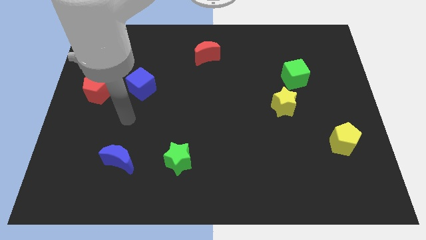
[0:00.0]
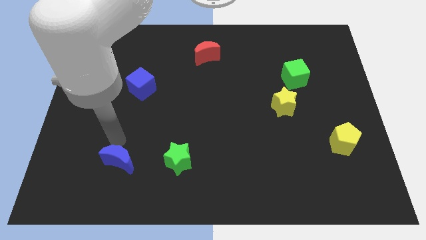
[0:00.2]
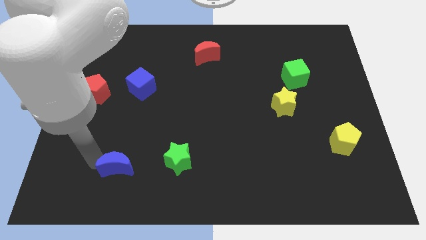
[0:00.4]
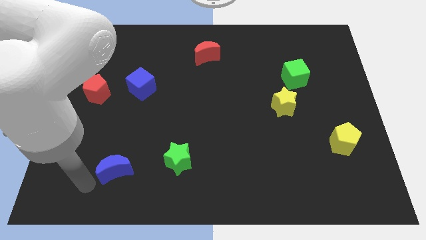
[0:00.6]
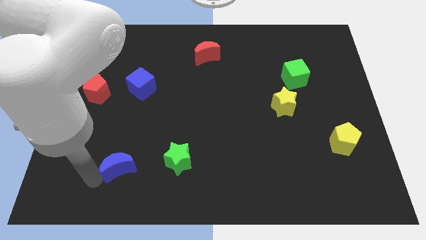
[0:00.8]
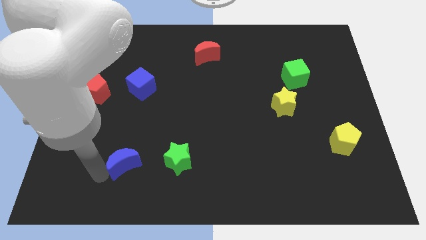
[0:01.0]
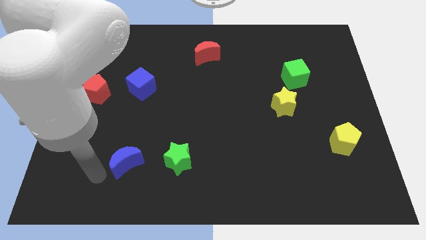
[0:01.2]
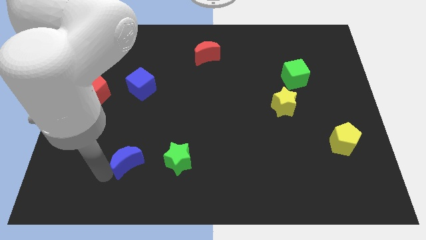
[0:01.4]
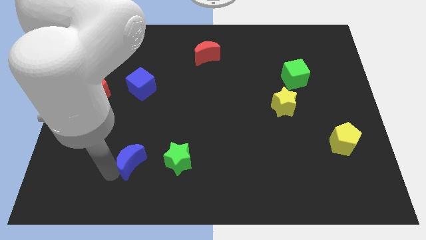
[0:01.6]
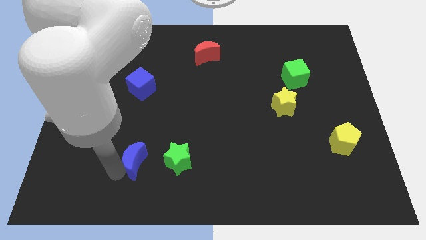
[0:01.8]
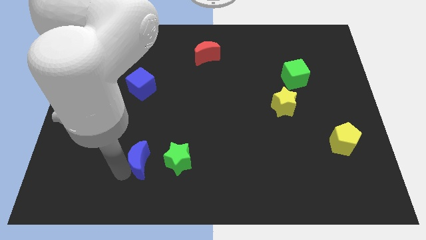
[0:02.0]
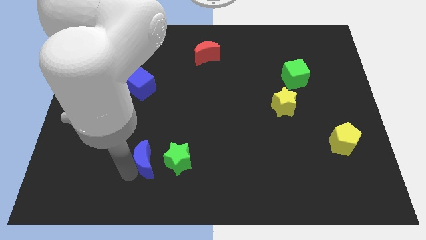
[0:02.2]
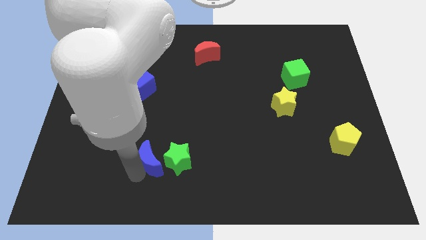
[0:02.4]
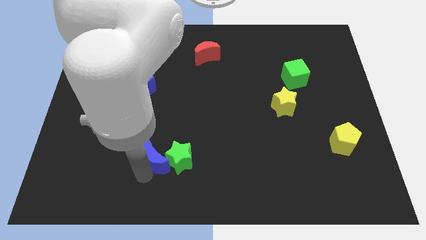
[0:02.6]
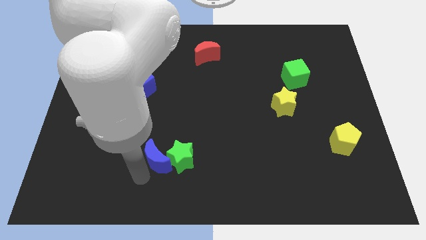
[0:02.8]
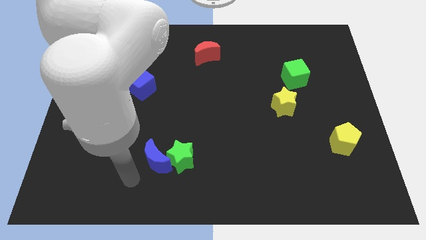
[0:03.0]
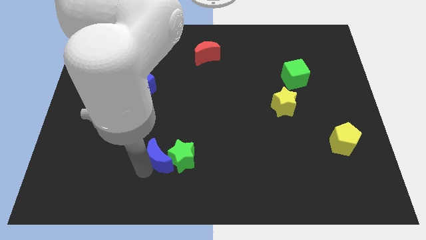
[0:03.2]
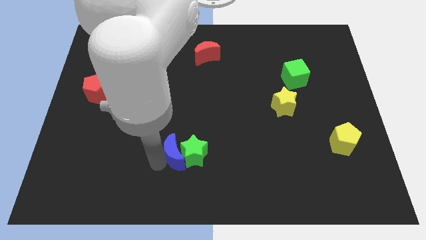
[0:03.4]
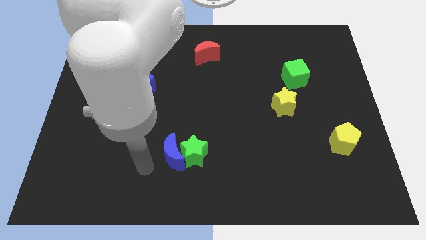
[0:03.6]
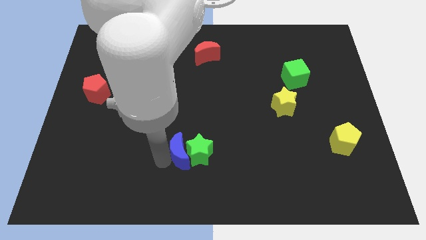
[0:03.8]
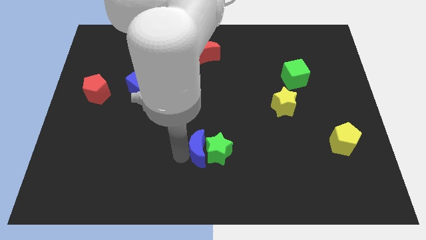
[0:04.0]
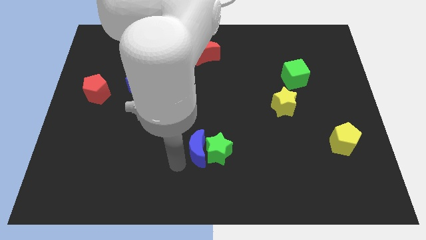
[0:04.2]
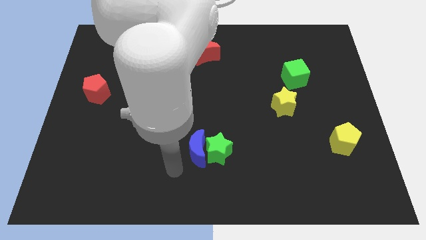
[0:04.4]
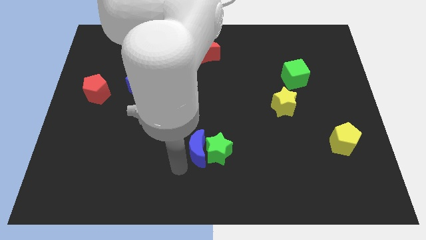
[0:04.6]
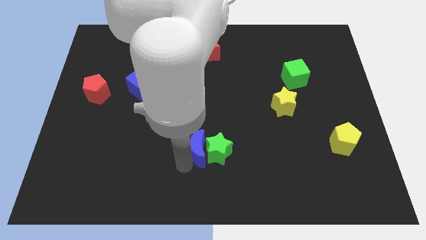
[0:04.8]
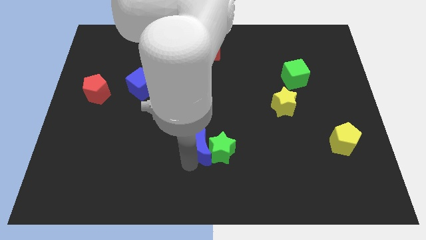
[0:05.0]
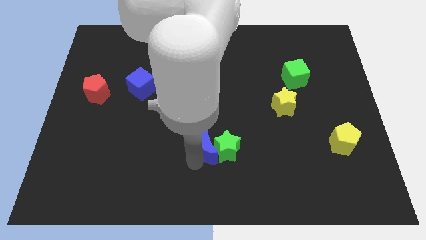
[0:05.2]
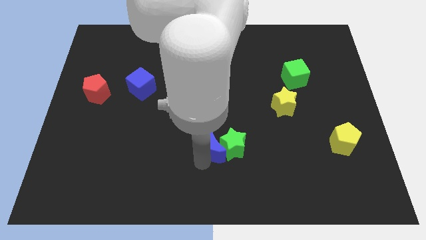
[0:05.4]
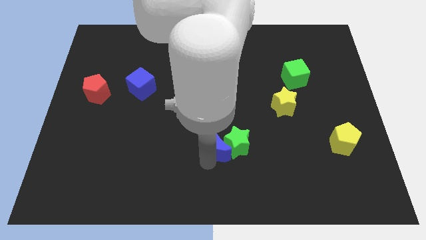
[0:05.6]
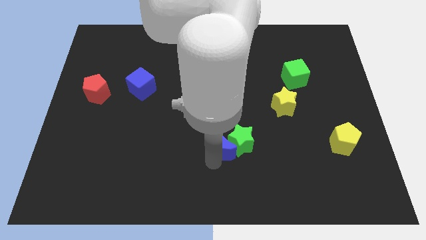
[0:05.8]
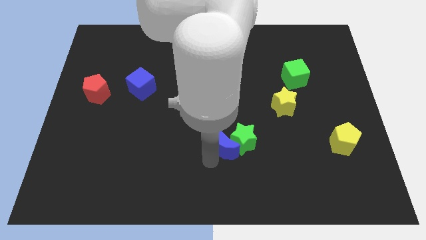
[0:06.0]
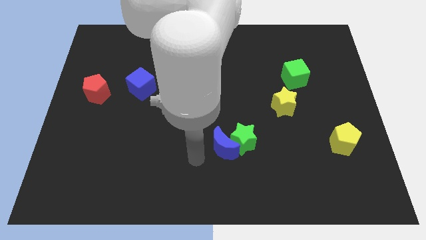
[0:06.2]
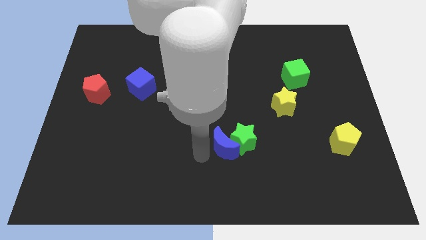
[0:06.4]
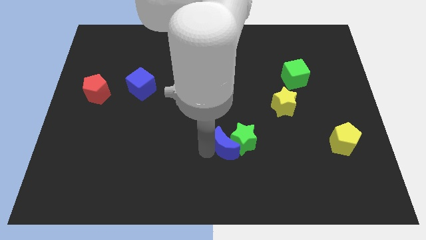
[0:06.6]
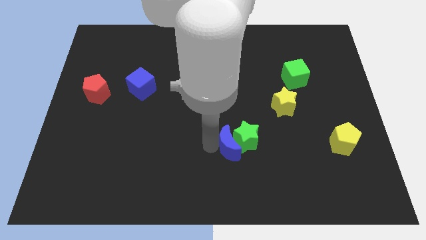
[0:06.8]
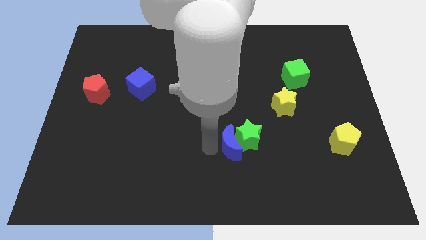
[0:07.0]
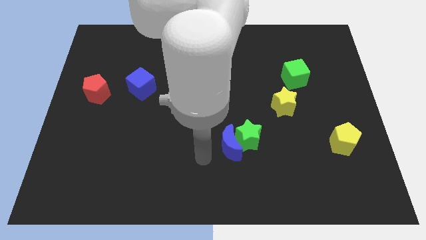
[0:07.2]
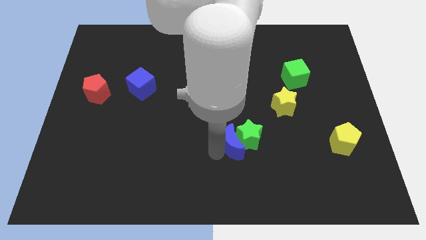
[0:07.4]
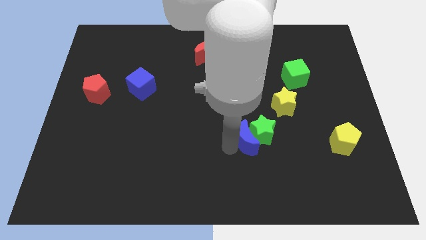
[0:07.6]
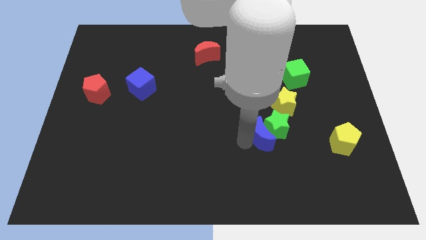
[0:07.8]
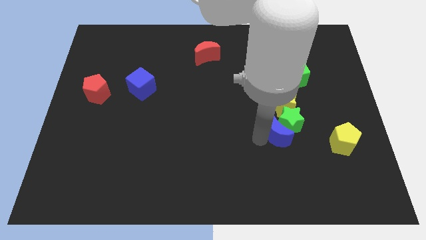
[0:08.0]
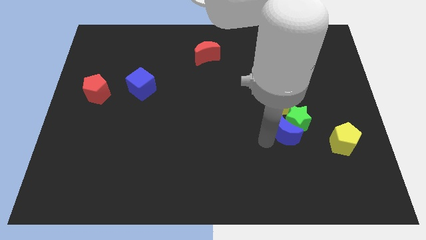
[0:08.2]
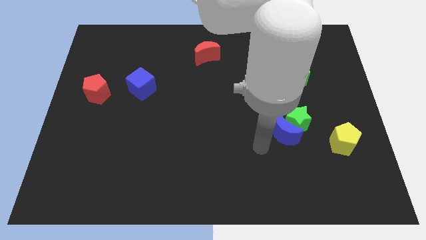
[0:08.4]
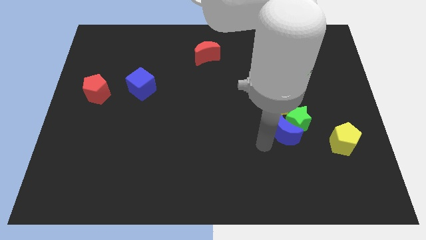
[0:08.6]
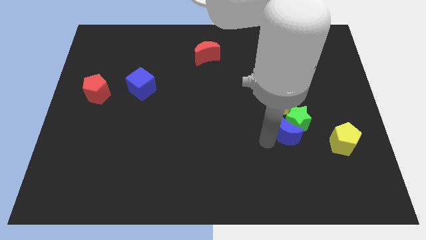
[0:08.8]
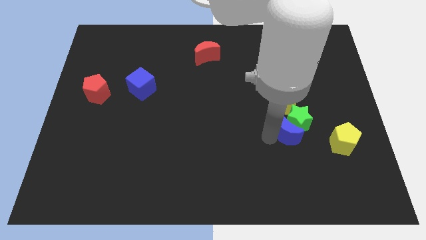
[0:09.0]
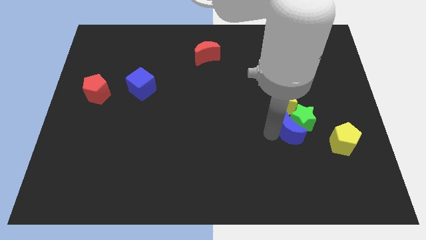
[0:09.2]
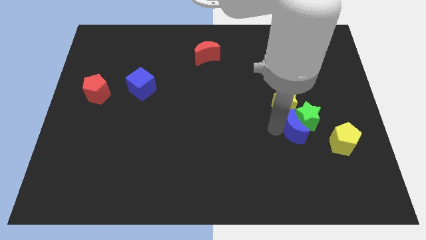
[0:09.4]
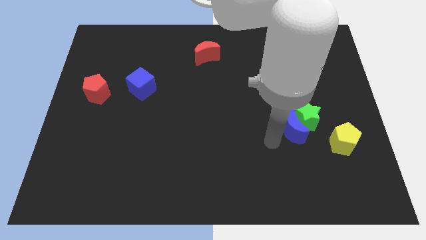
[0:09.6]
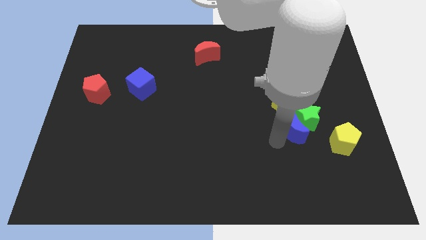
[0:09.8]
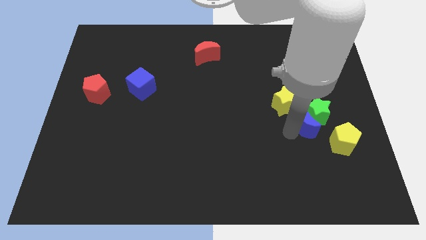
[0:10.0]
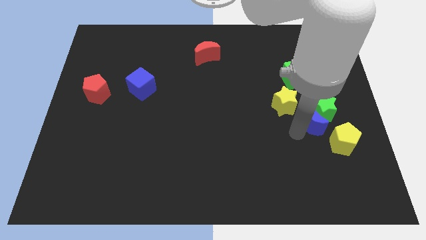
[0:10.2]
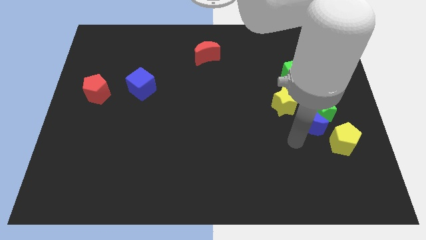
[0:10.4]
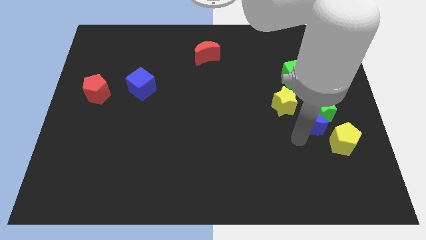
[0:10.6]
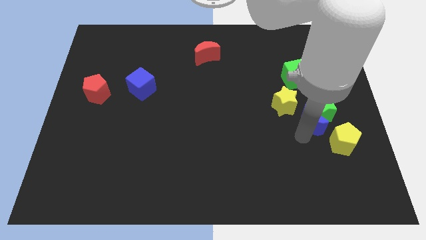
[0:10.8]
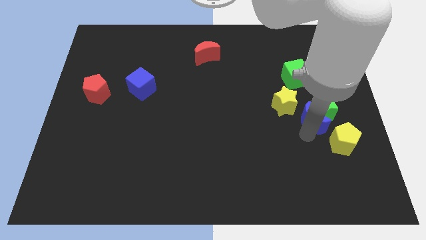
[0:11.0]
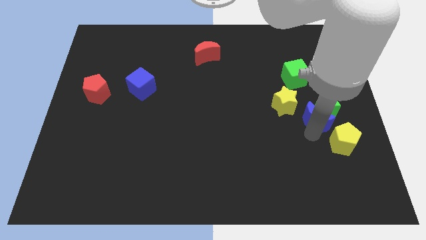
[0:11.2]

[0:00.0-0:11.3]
push the blue moon to the right of the yellow star

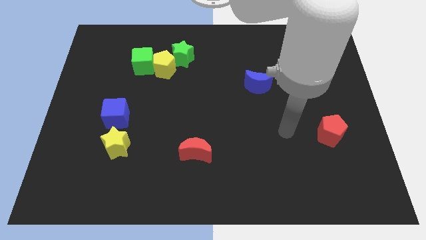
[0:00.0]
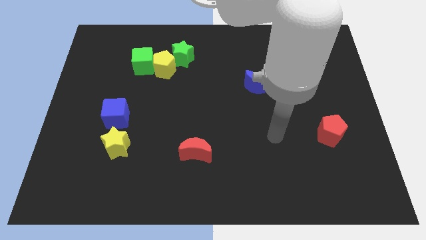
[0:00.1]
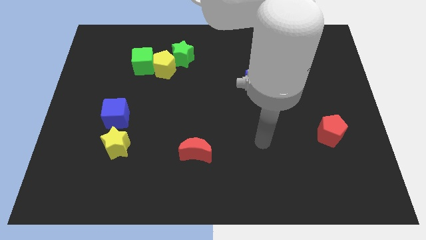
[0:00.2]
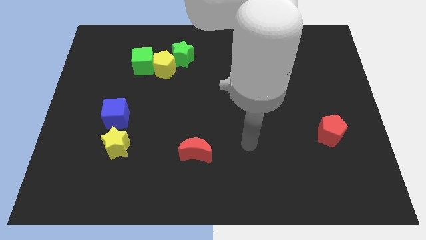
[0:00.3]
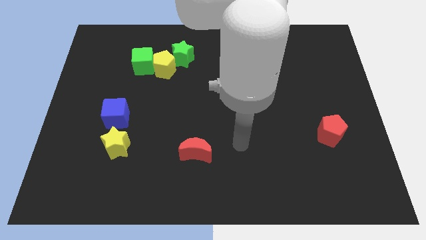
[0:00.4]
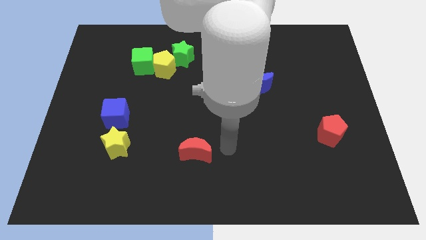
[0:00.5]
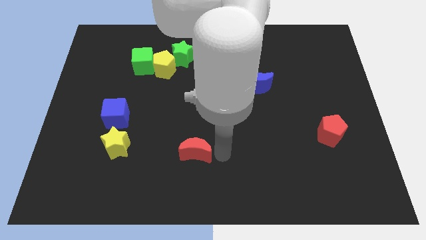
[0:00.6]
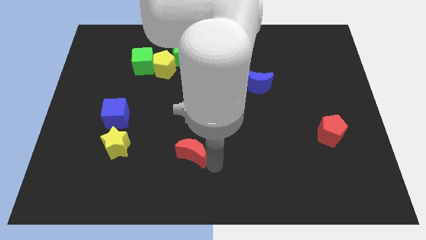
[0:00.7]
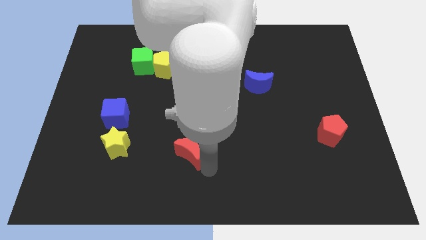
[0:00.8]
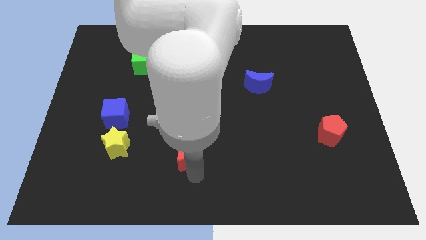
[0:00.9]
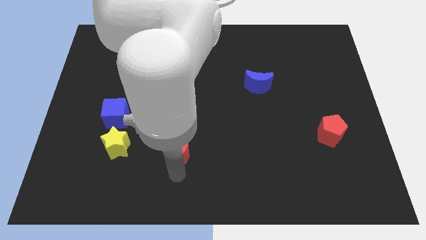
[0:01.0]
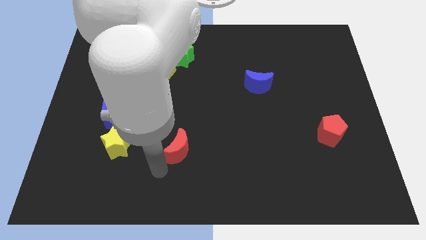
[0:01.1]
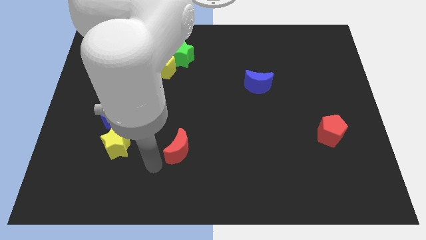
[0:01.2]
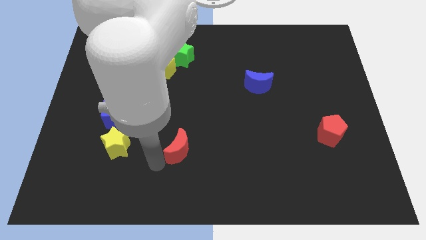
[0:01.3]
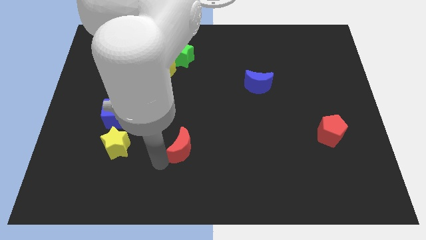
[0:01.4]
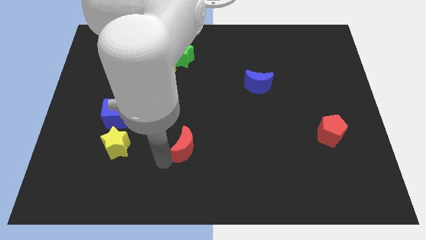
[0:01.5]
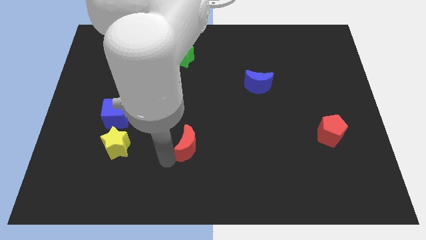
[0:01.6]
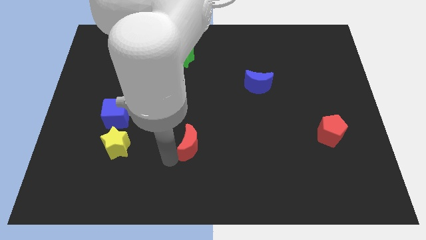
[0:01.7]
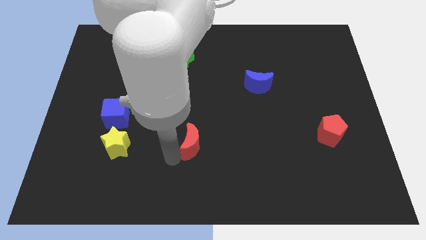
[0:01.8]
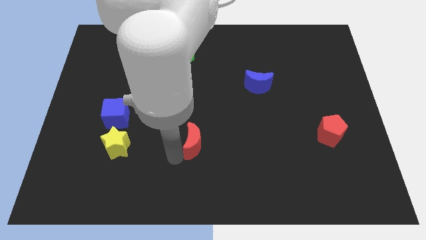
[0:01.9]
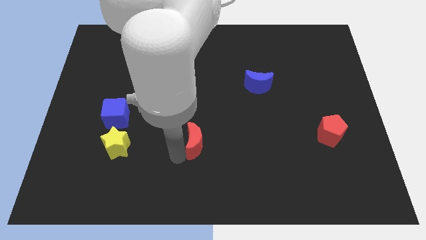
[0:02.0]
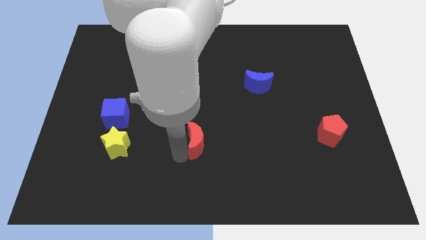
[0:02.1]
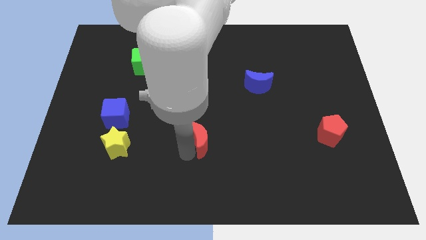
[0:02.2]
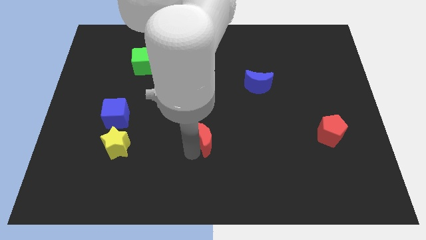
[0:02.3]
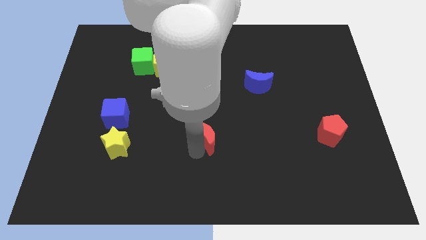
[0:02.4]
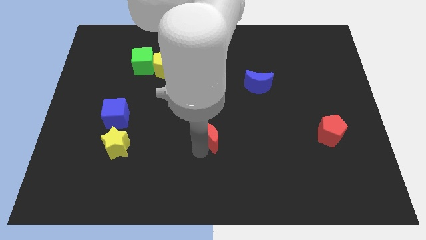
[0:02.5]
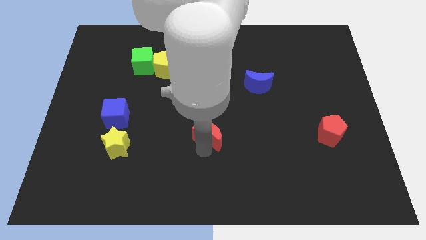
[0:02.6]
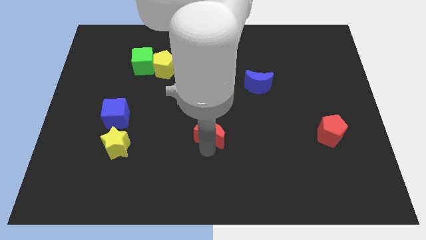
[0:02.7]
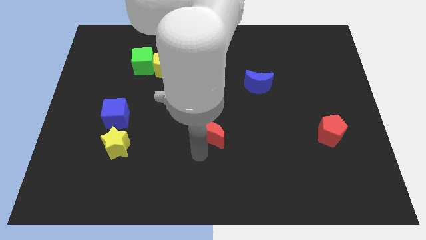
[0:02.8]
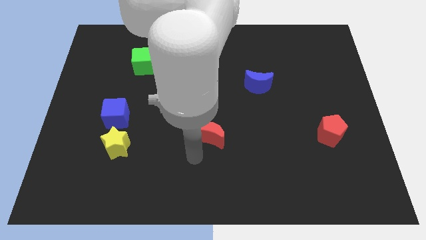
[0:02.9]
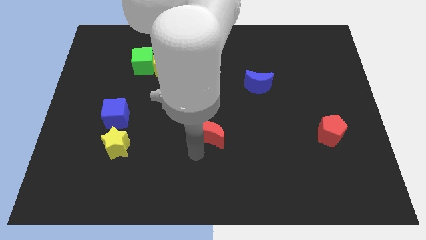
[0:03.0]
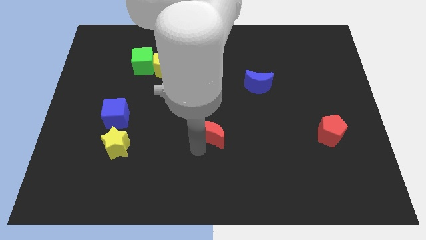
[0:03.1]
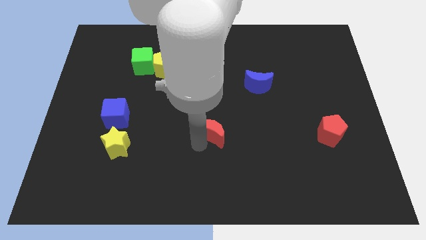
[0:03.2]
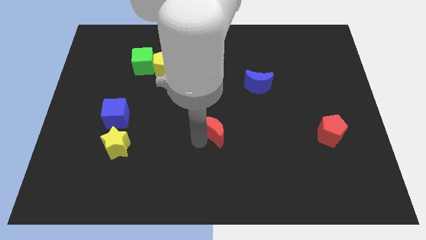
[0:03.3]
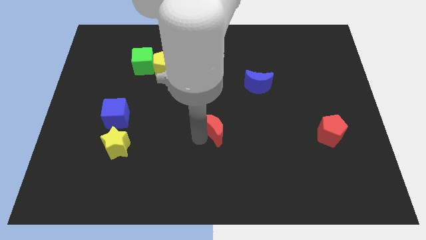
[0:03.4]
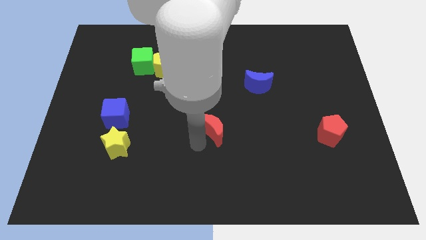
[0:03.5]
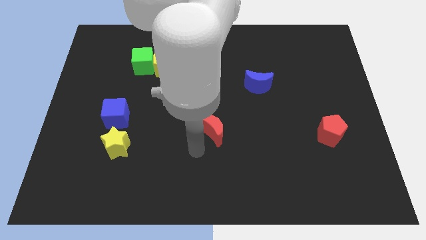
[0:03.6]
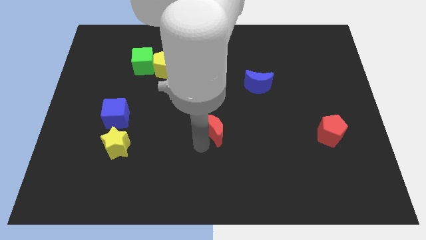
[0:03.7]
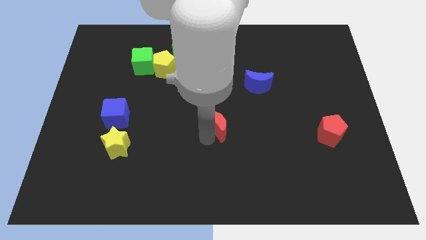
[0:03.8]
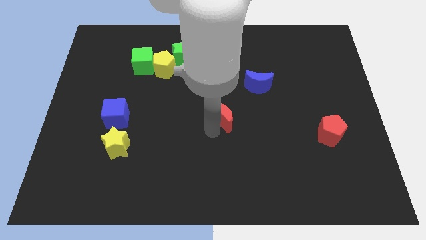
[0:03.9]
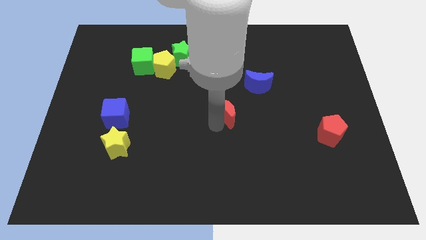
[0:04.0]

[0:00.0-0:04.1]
slide the red moon to the bottom left side of the blue moon
